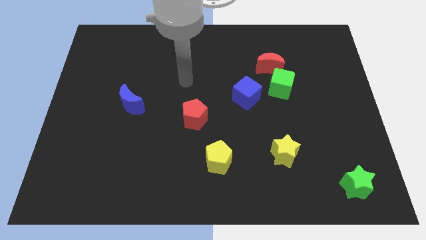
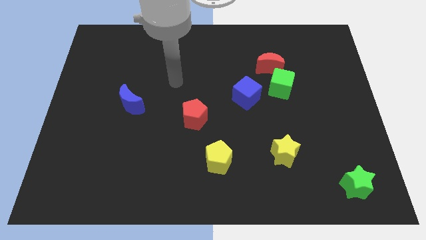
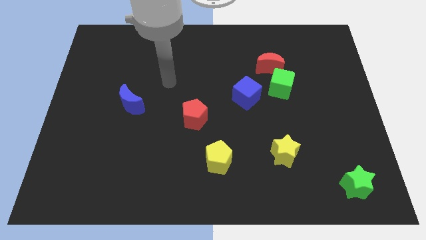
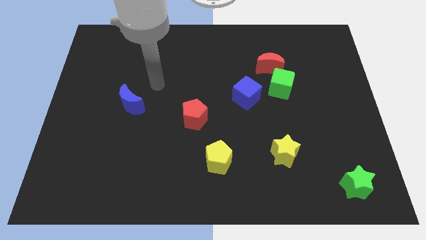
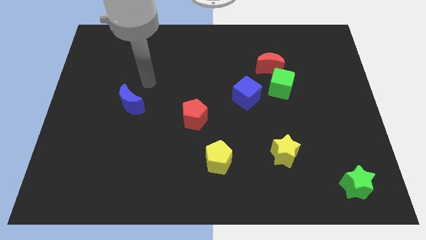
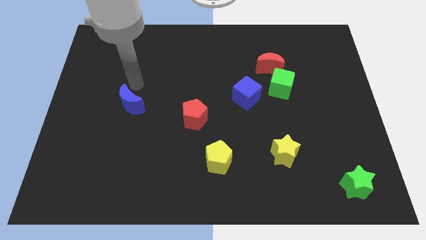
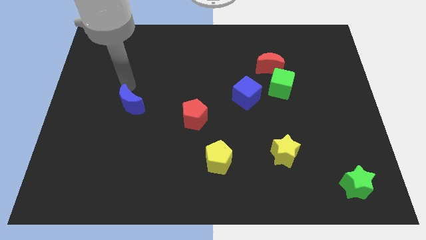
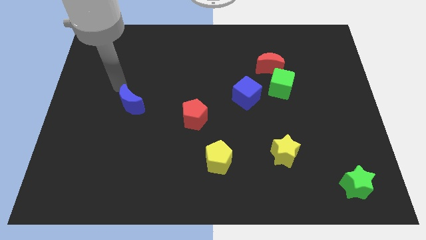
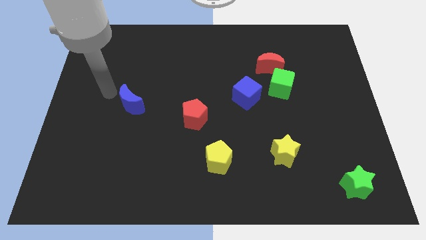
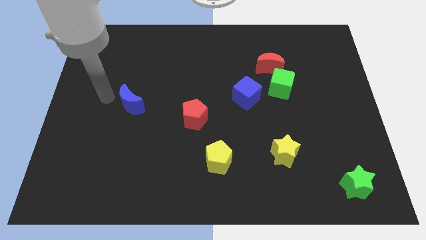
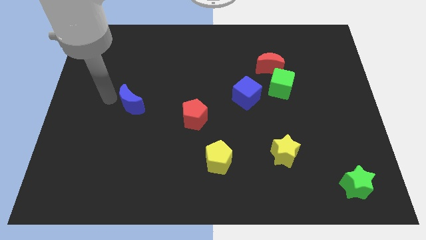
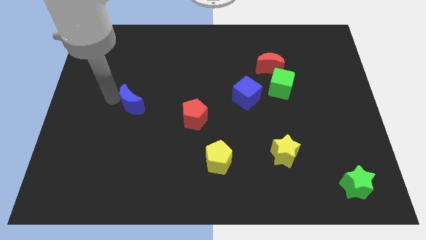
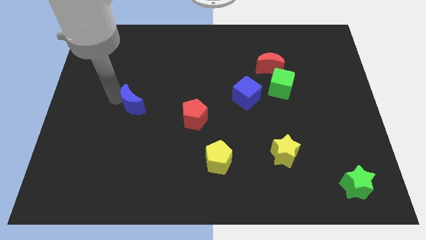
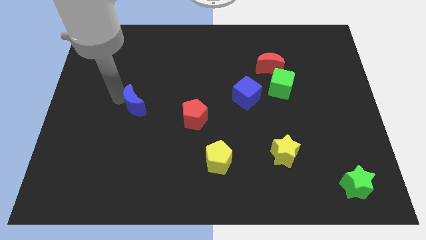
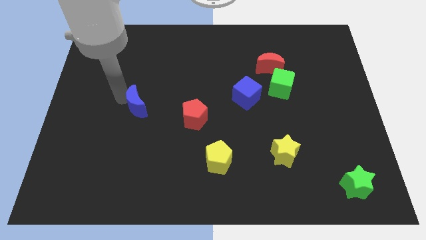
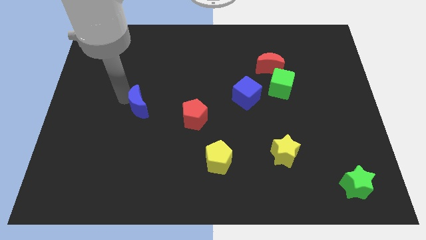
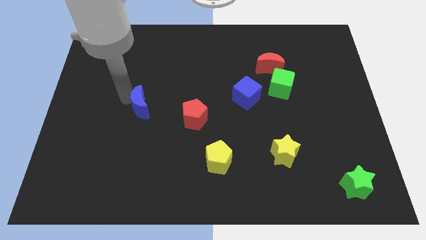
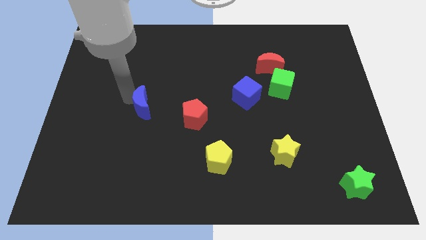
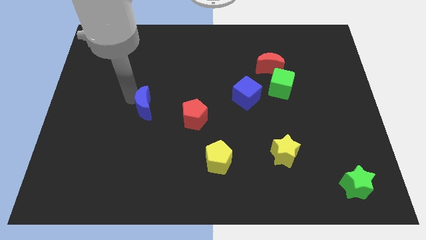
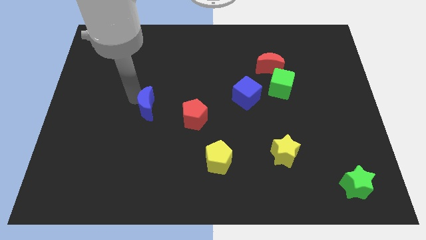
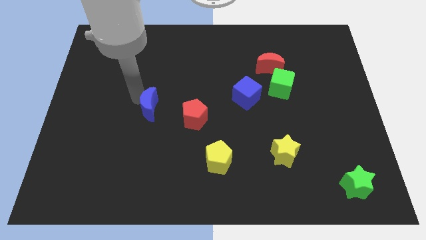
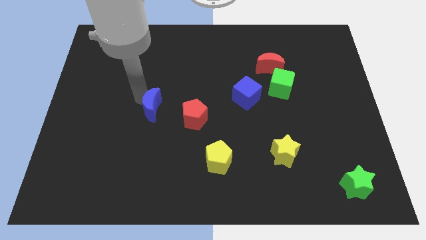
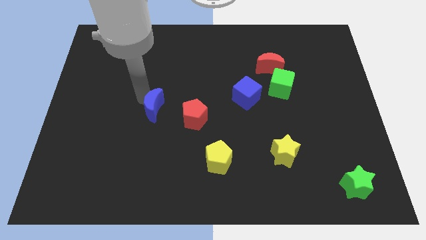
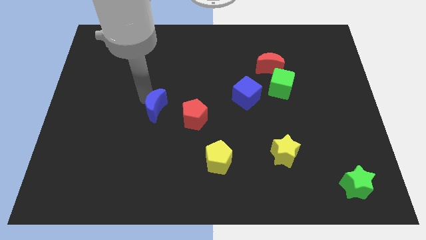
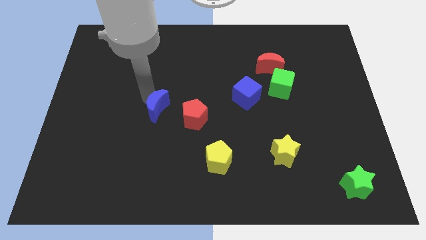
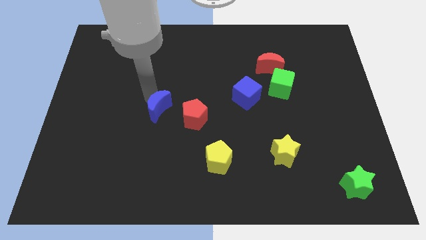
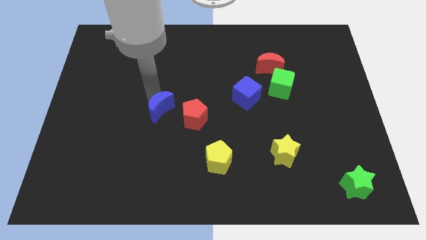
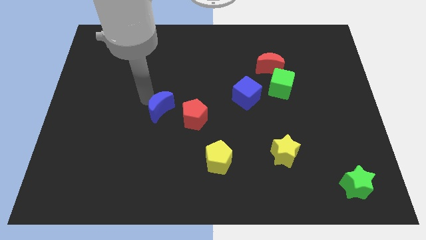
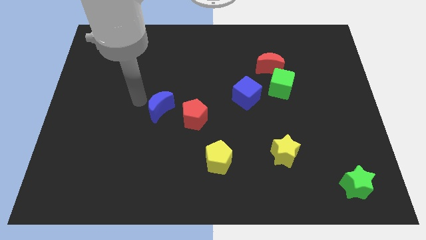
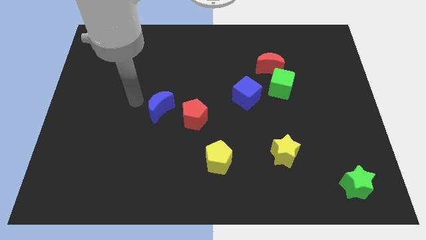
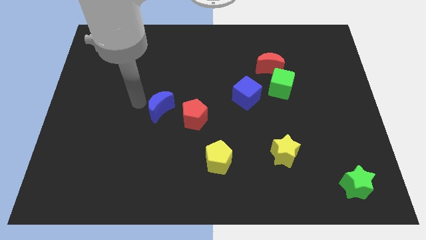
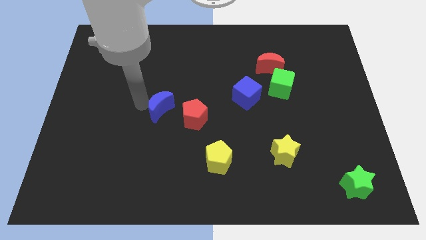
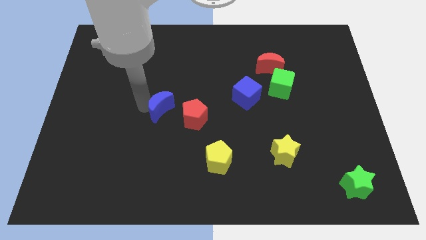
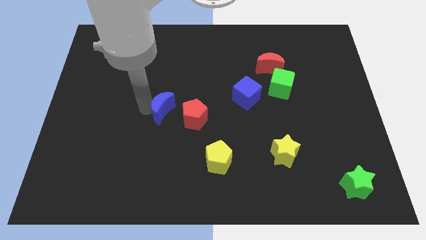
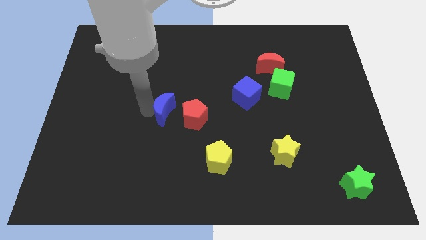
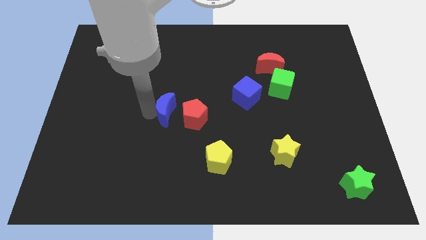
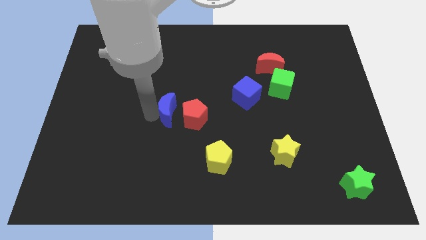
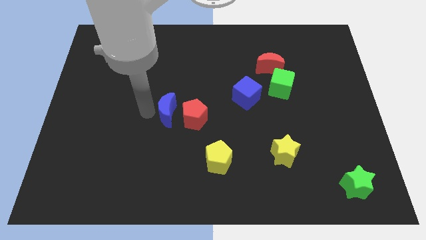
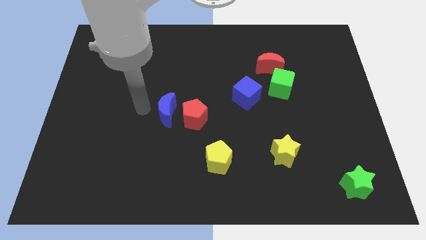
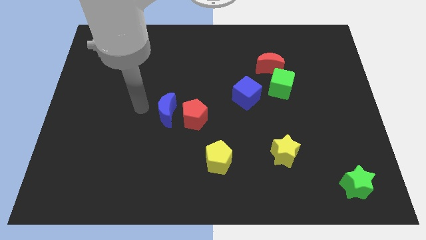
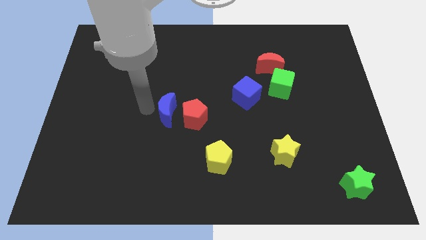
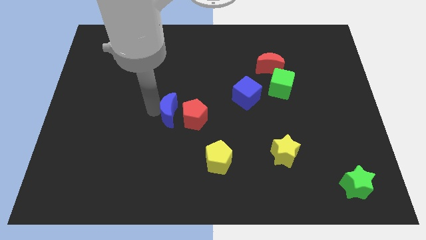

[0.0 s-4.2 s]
push the blue moon close to the red pentagon

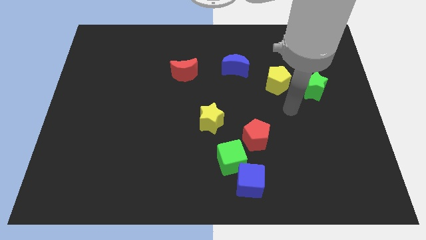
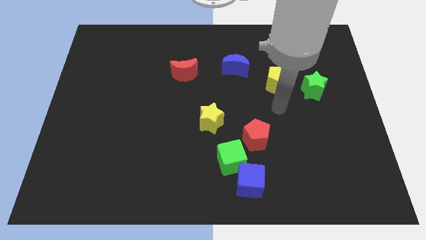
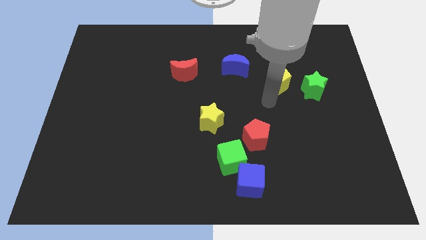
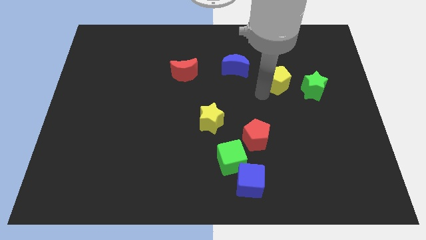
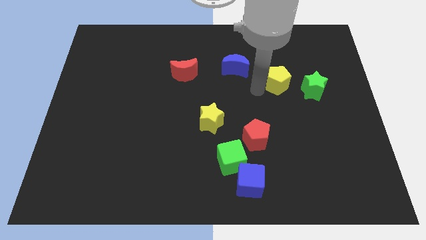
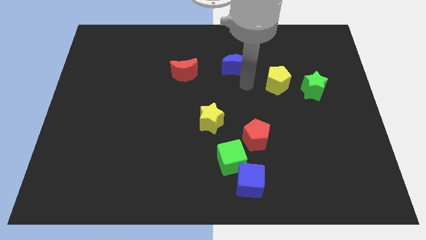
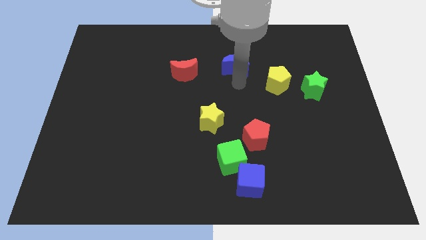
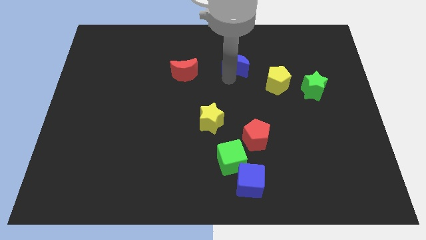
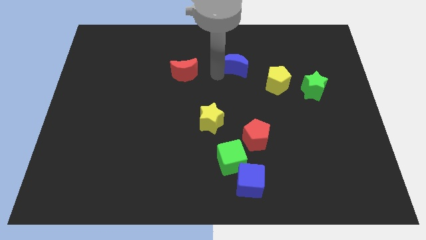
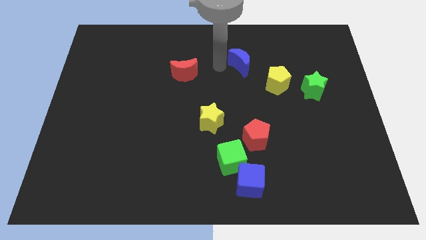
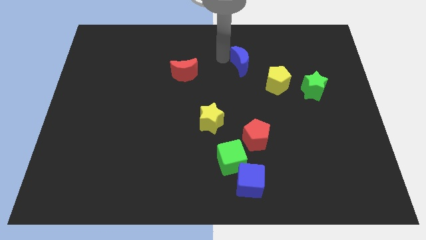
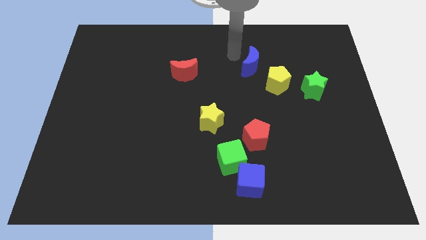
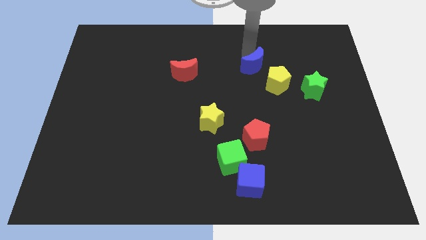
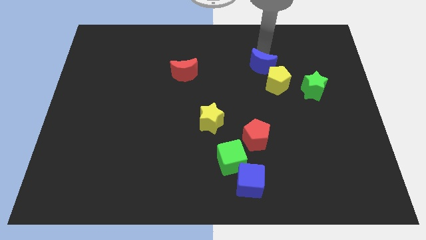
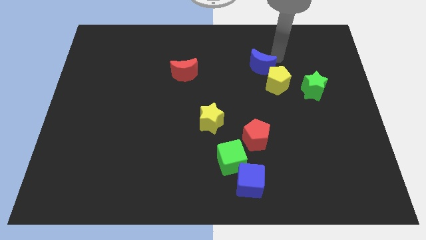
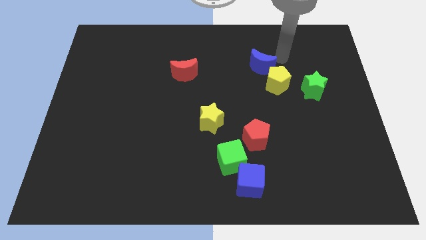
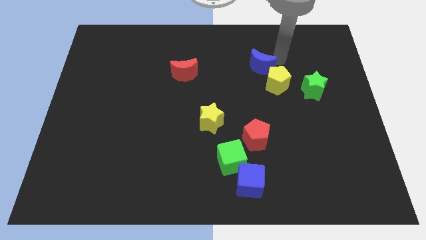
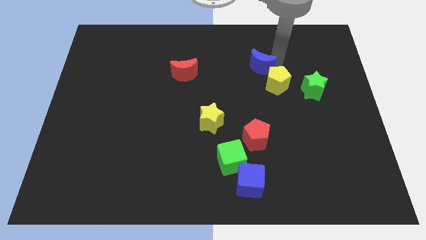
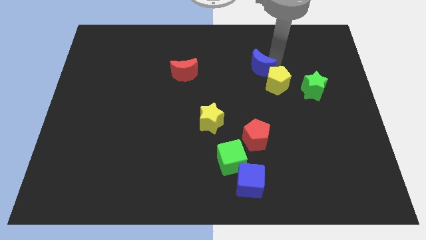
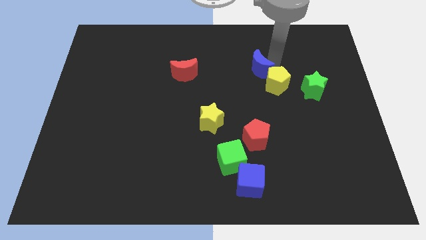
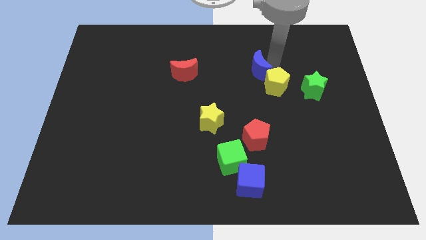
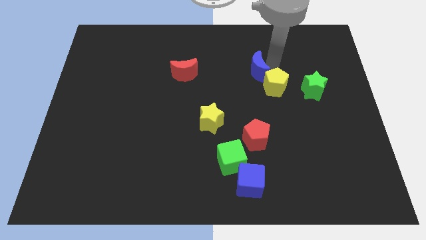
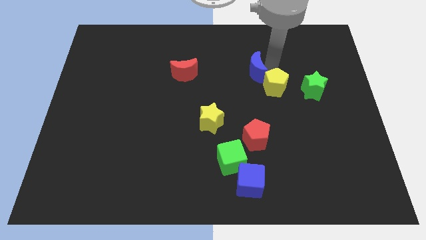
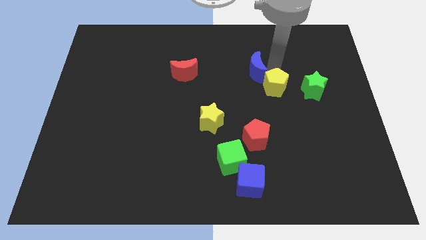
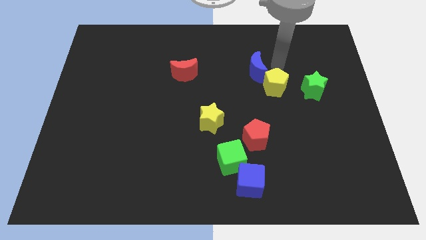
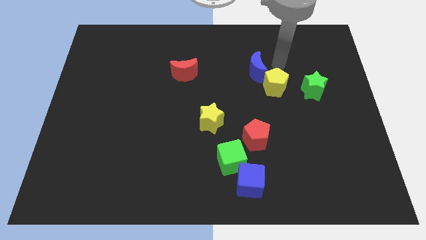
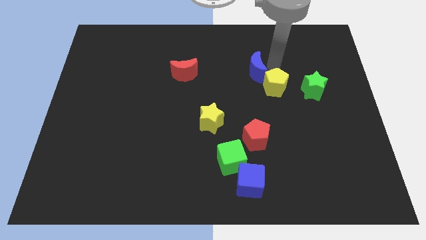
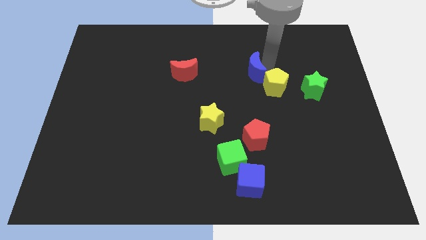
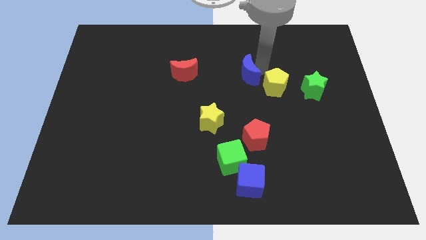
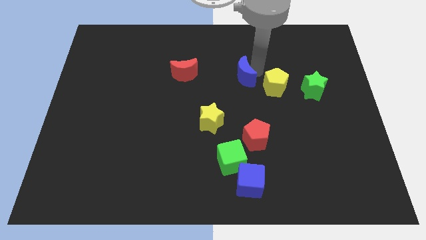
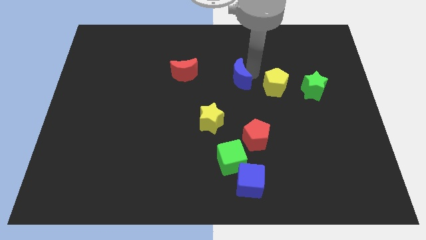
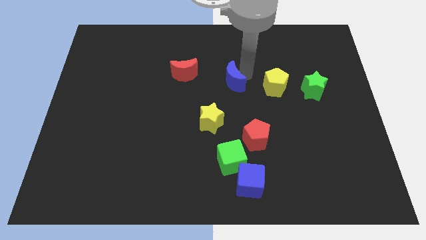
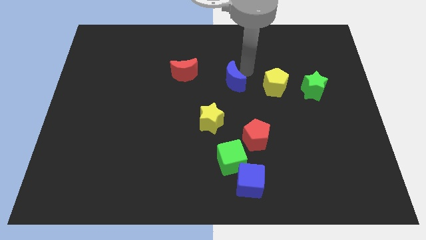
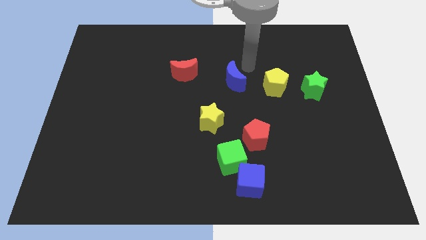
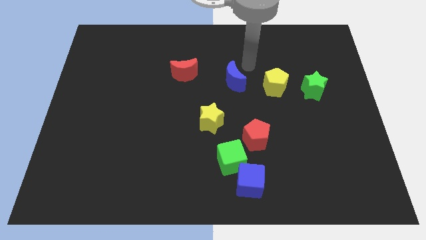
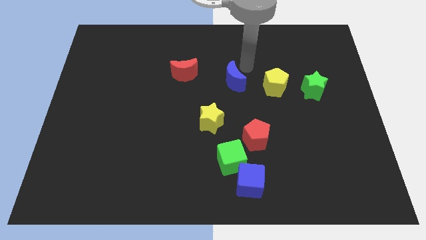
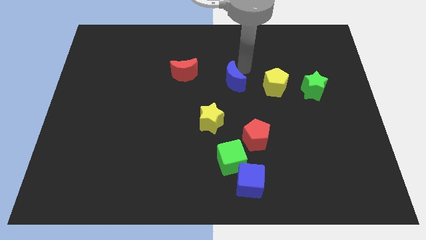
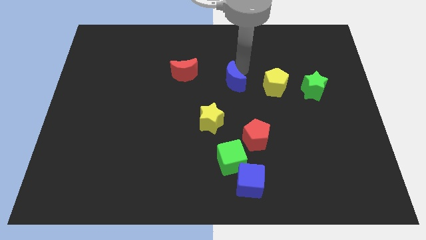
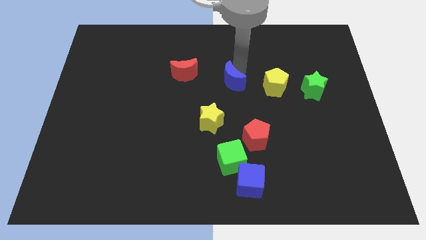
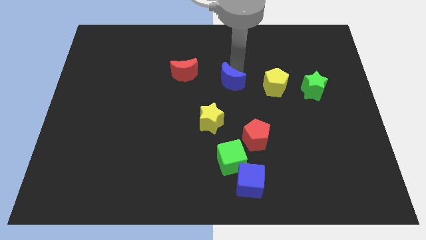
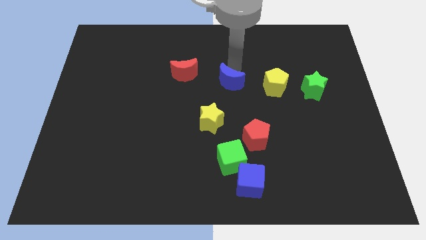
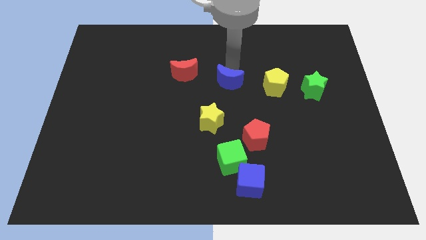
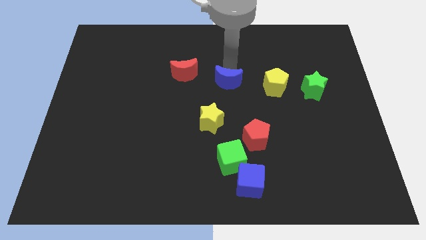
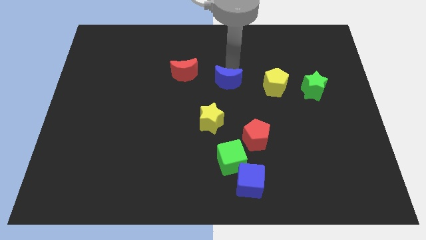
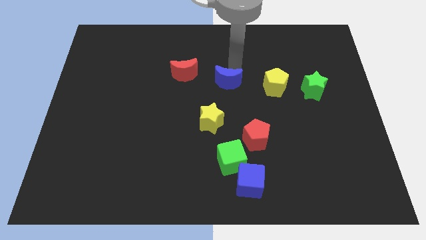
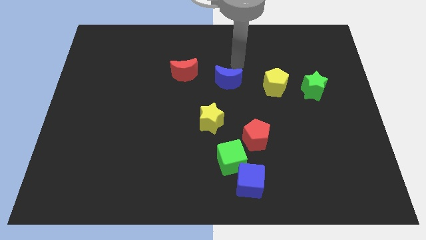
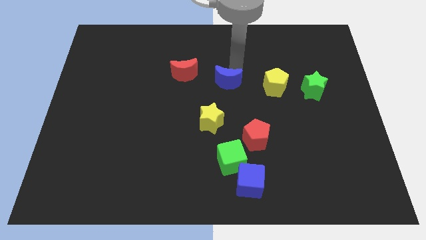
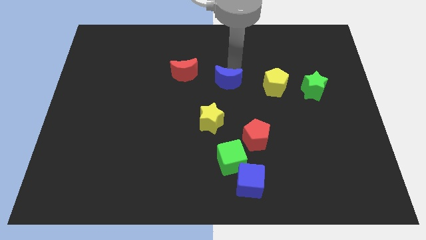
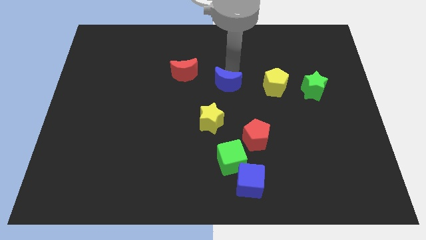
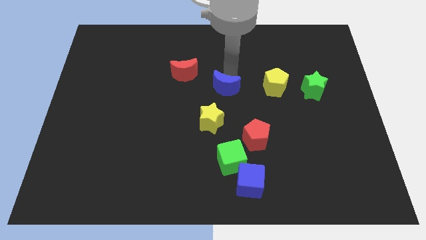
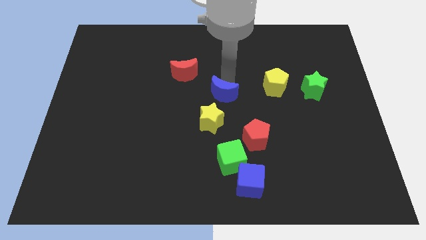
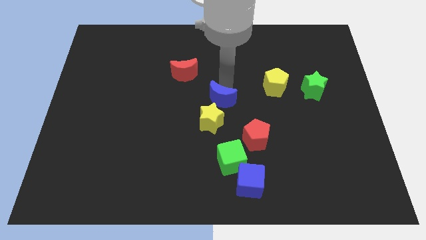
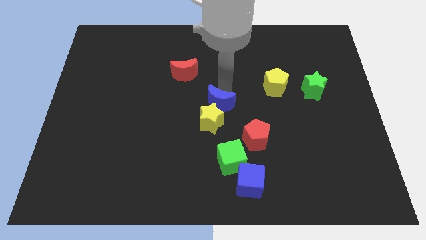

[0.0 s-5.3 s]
put the blue moon to the yellow star
